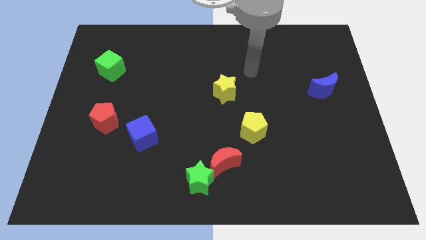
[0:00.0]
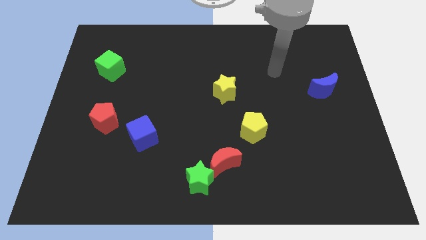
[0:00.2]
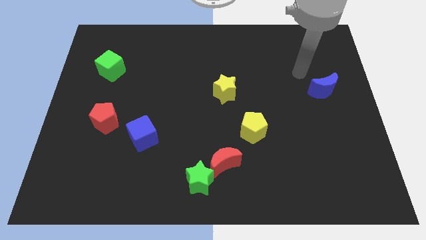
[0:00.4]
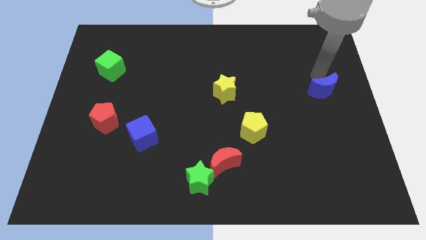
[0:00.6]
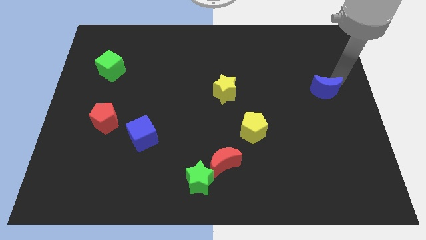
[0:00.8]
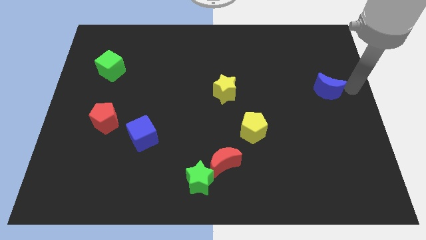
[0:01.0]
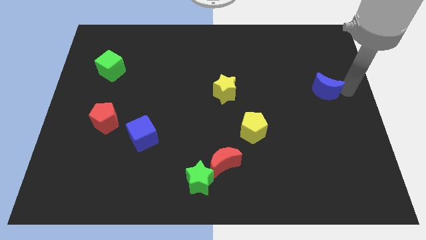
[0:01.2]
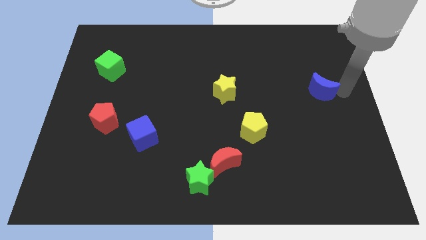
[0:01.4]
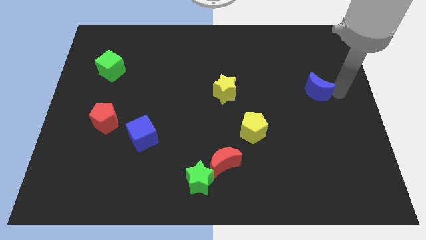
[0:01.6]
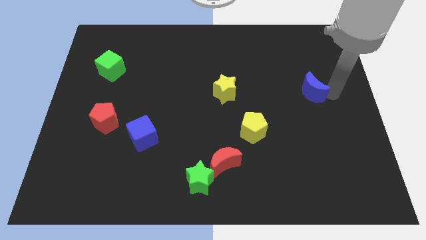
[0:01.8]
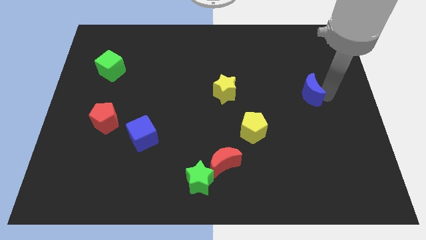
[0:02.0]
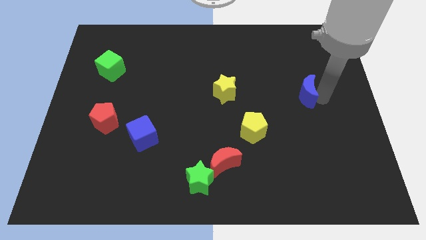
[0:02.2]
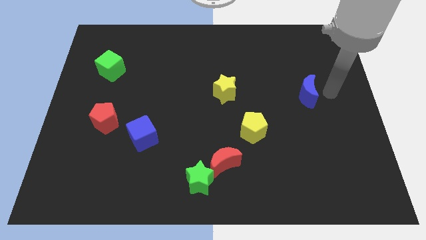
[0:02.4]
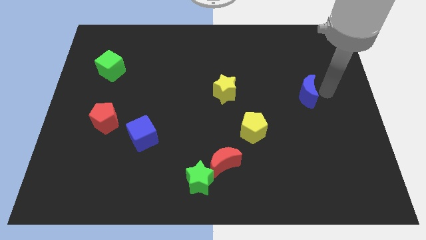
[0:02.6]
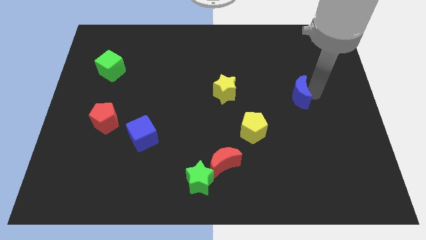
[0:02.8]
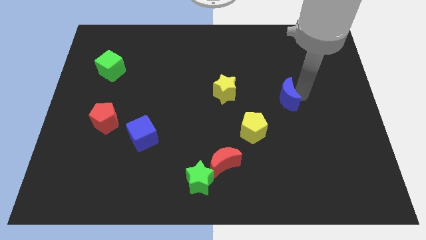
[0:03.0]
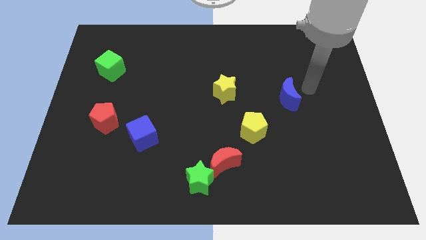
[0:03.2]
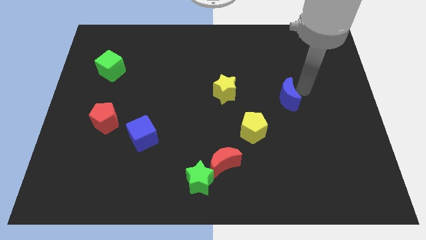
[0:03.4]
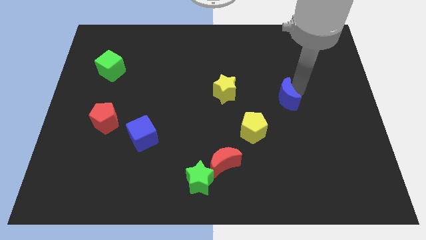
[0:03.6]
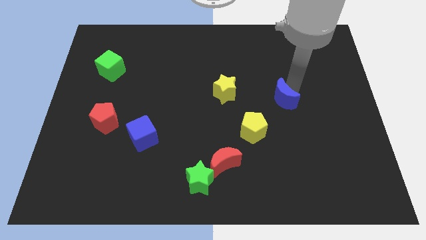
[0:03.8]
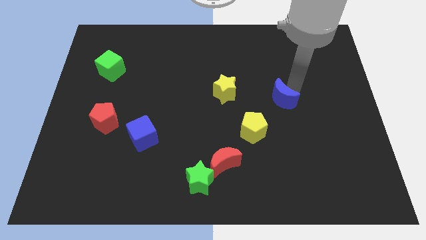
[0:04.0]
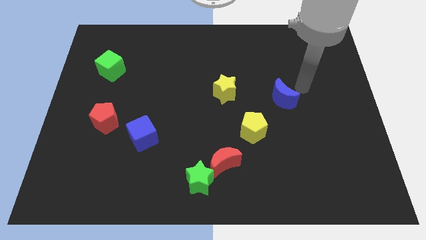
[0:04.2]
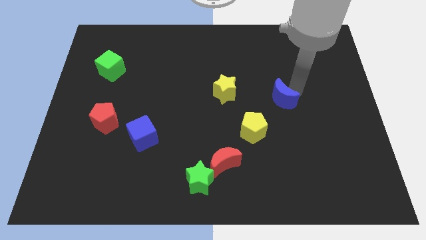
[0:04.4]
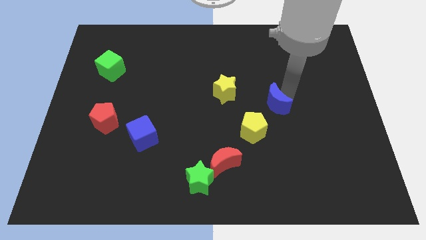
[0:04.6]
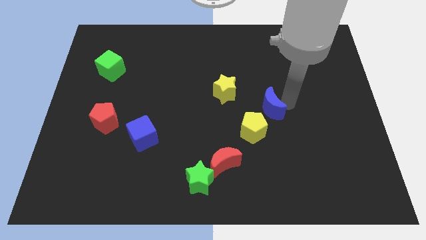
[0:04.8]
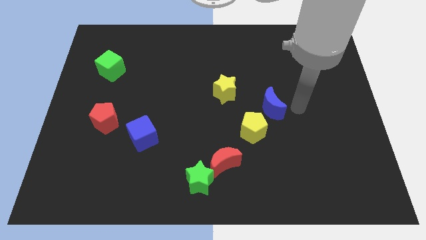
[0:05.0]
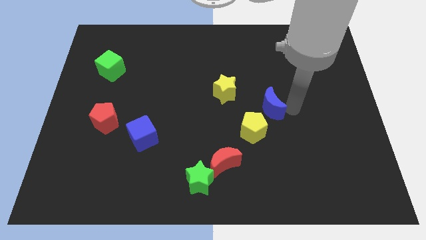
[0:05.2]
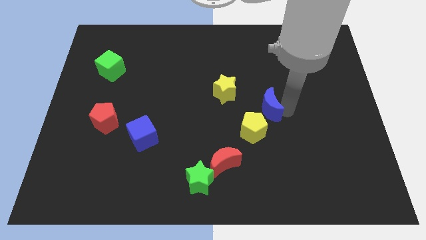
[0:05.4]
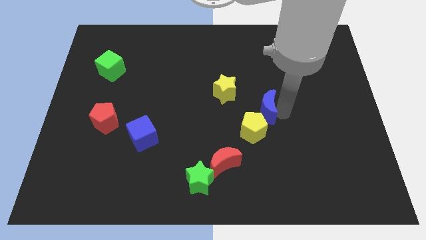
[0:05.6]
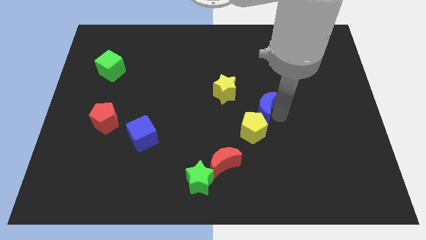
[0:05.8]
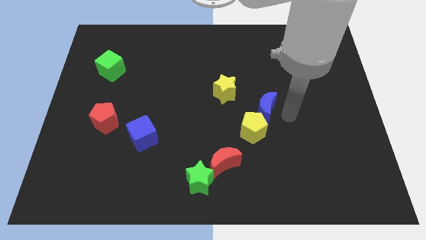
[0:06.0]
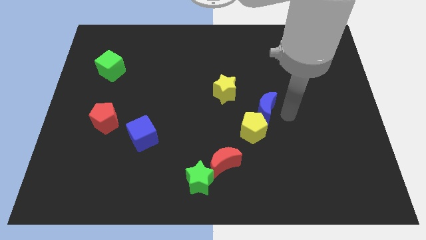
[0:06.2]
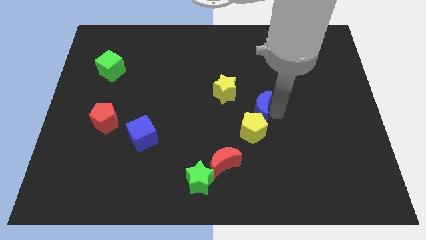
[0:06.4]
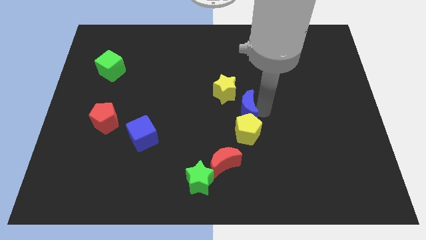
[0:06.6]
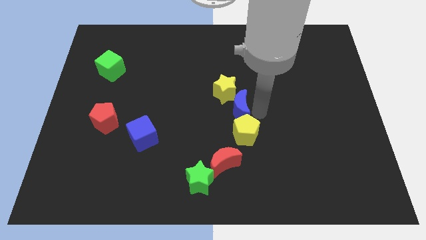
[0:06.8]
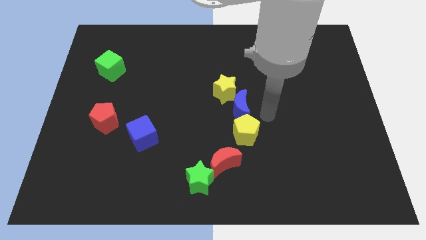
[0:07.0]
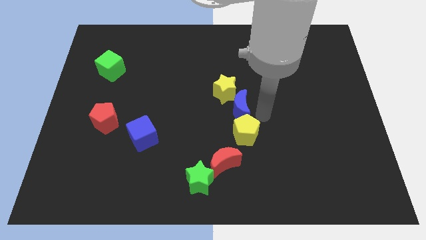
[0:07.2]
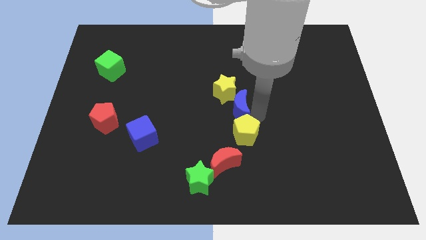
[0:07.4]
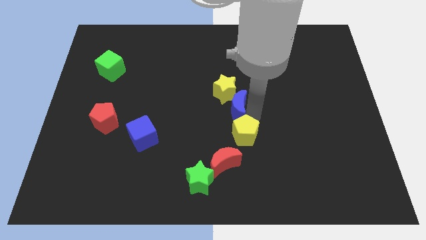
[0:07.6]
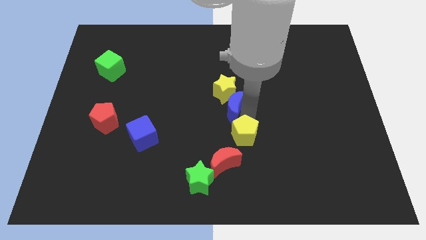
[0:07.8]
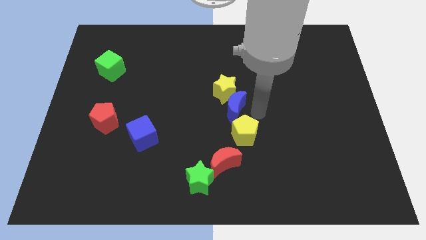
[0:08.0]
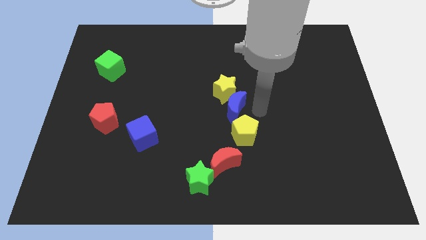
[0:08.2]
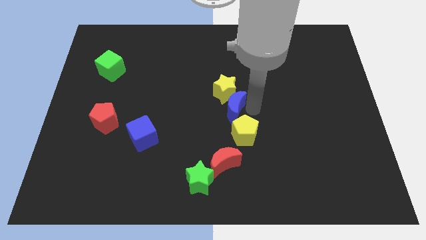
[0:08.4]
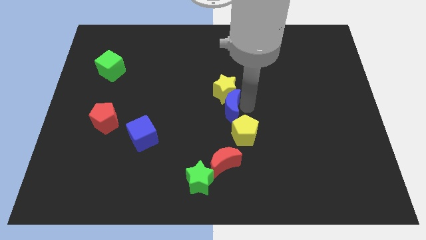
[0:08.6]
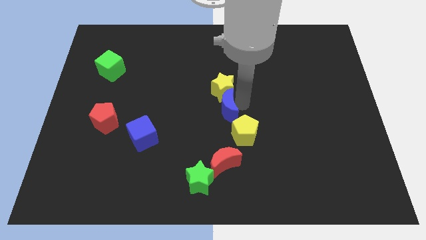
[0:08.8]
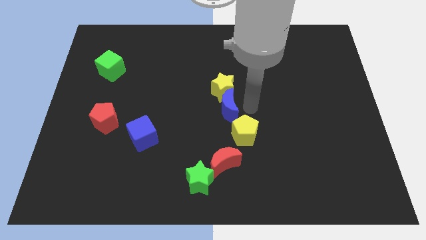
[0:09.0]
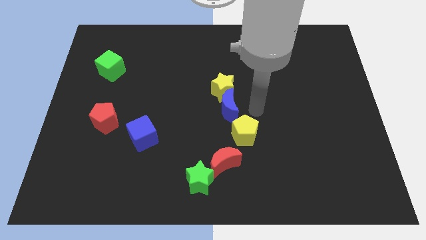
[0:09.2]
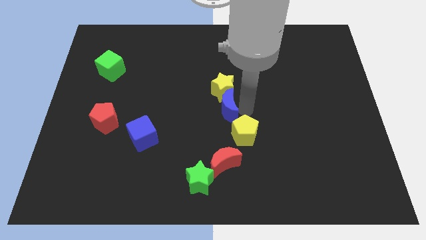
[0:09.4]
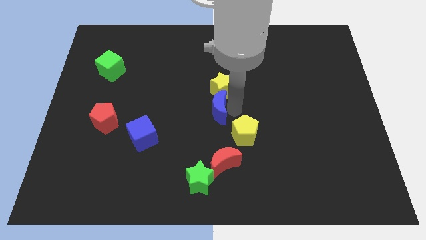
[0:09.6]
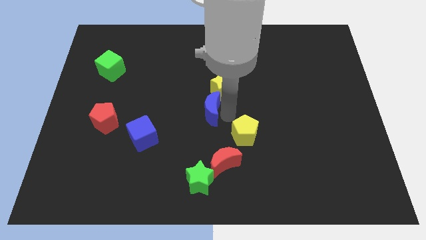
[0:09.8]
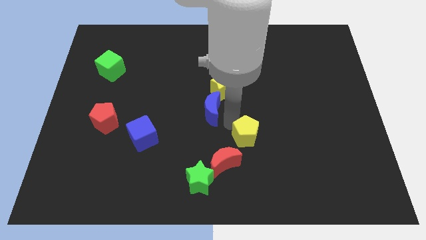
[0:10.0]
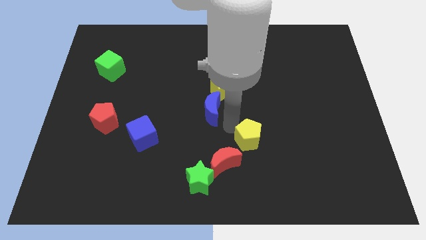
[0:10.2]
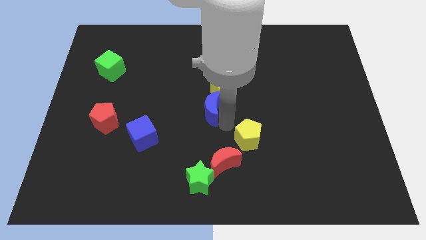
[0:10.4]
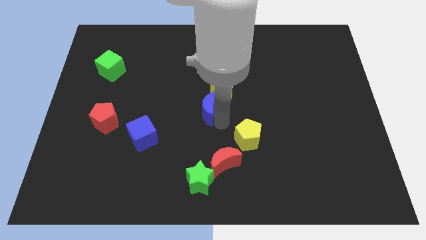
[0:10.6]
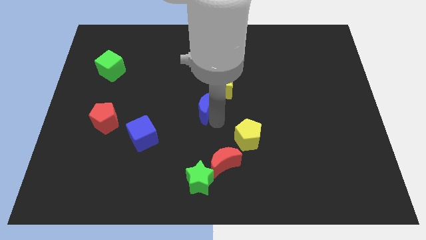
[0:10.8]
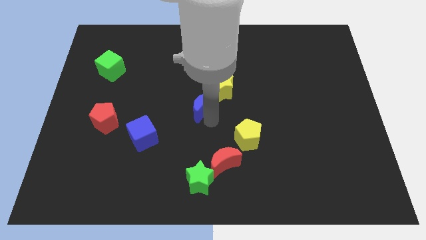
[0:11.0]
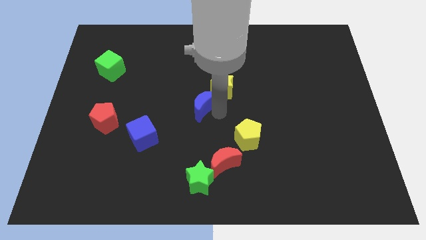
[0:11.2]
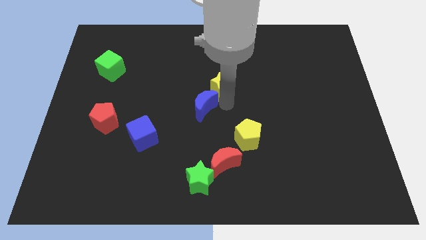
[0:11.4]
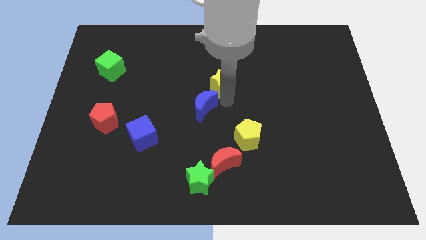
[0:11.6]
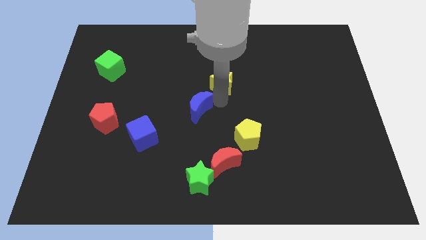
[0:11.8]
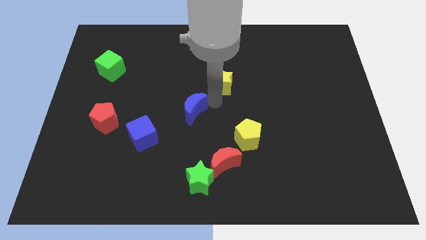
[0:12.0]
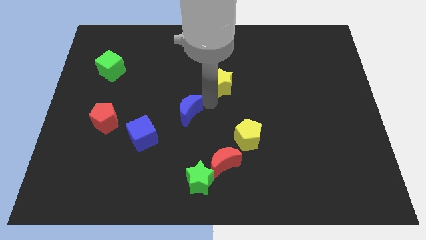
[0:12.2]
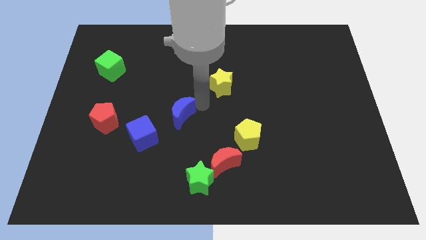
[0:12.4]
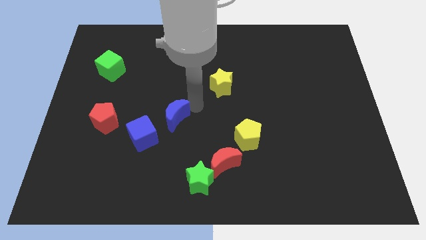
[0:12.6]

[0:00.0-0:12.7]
put the blue moon just right of the red pentagon
